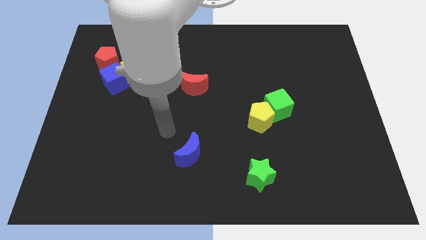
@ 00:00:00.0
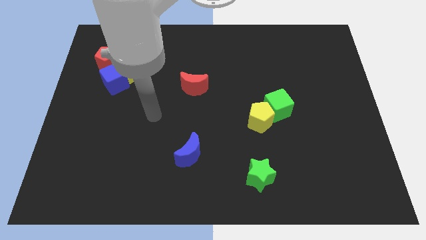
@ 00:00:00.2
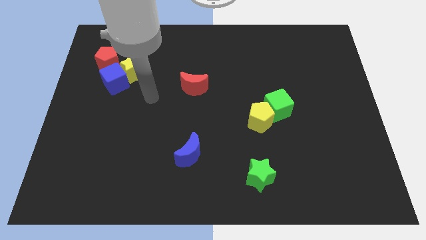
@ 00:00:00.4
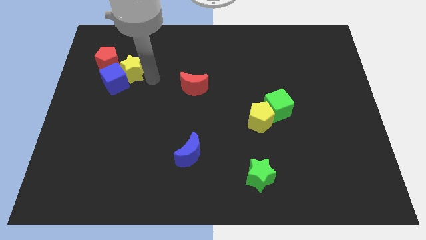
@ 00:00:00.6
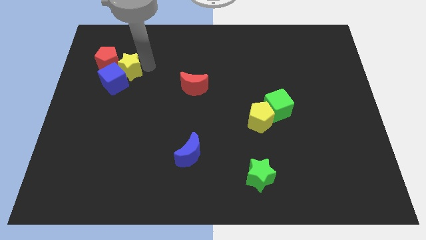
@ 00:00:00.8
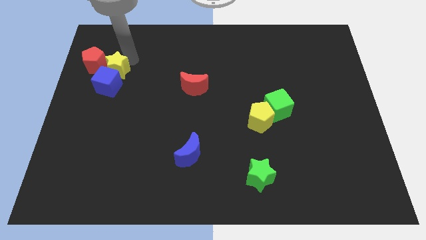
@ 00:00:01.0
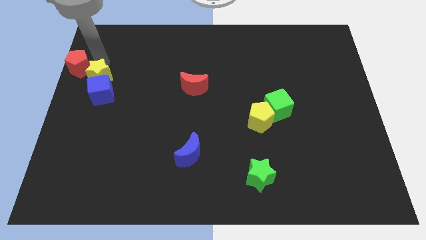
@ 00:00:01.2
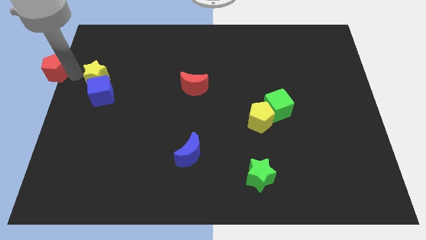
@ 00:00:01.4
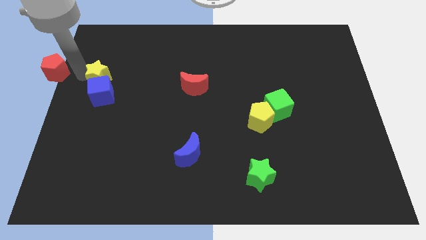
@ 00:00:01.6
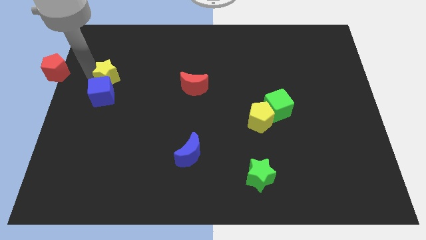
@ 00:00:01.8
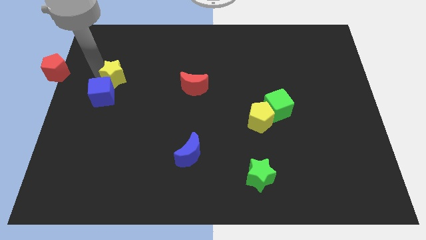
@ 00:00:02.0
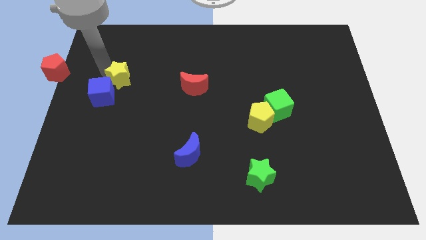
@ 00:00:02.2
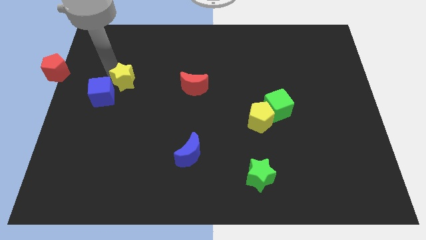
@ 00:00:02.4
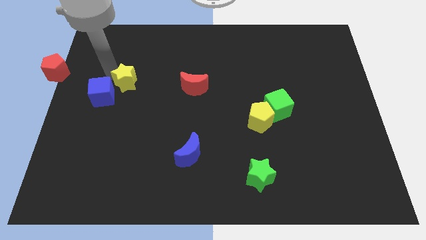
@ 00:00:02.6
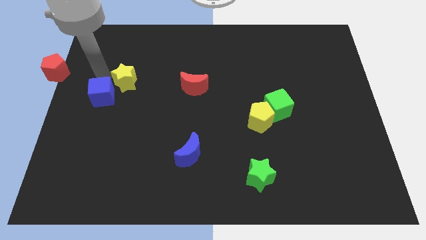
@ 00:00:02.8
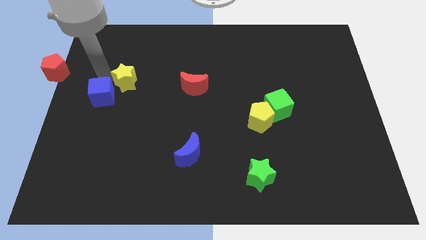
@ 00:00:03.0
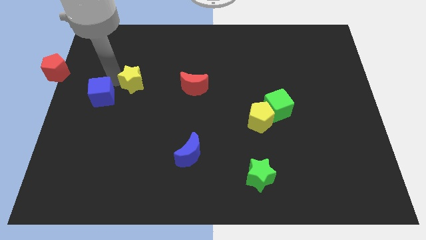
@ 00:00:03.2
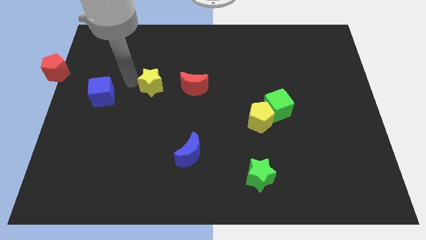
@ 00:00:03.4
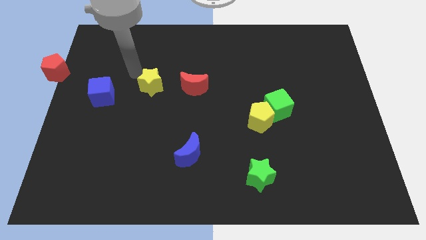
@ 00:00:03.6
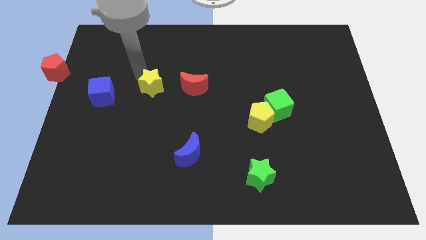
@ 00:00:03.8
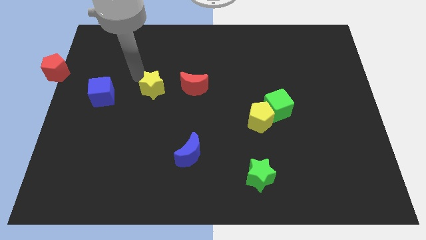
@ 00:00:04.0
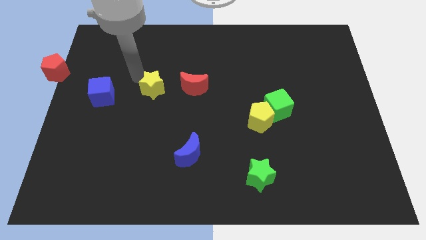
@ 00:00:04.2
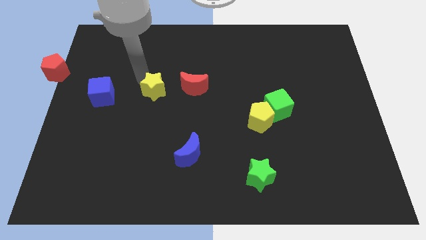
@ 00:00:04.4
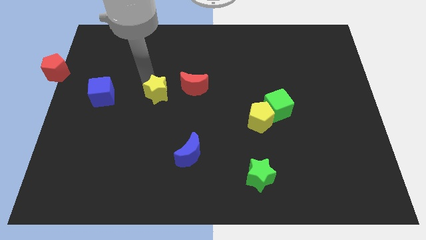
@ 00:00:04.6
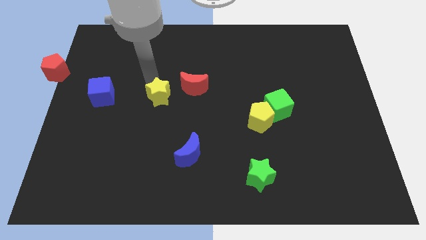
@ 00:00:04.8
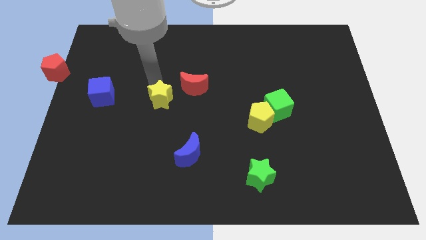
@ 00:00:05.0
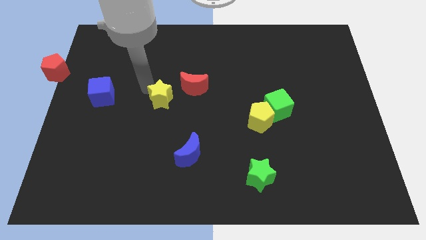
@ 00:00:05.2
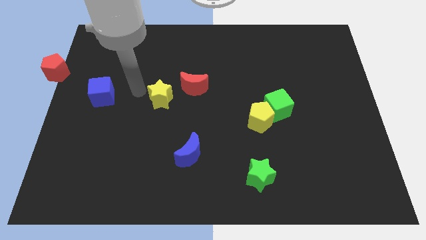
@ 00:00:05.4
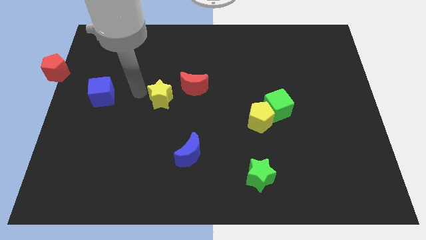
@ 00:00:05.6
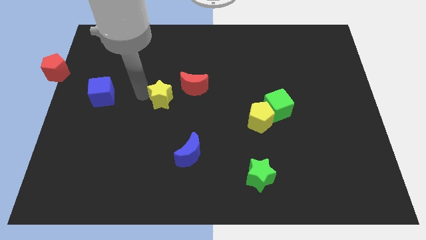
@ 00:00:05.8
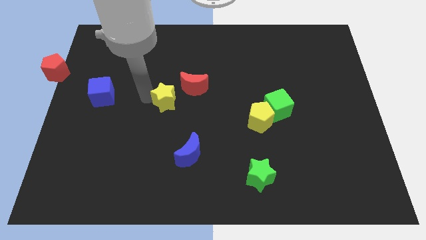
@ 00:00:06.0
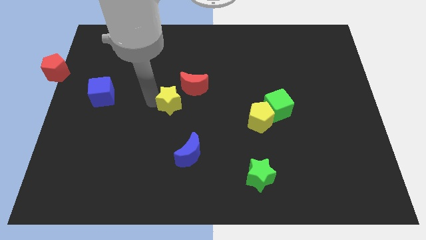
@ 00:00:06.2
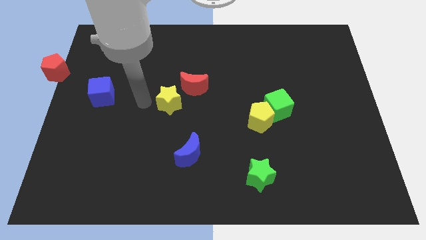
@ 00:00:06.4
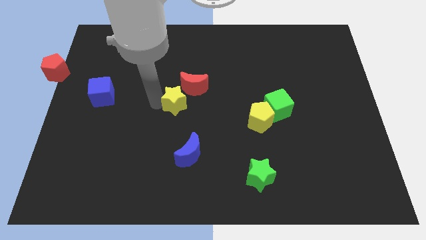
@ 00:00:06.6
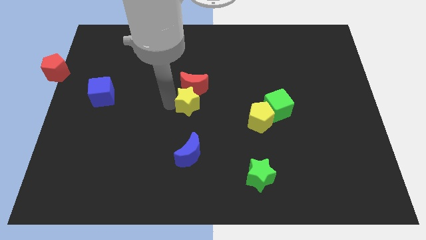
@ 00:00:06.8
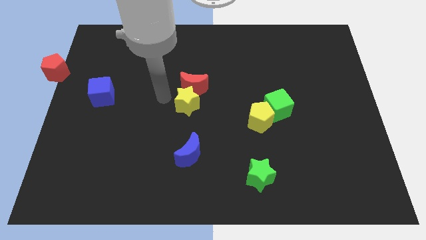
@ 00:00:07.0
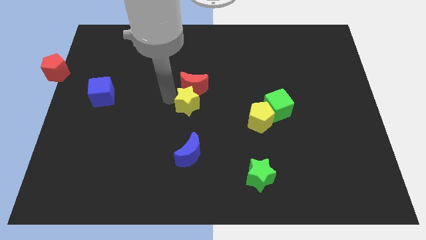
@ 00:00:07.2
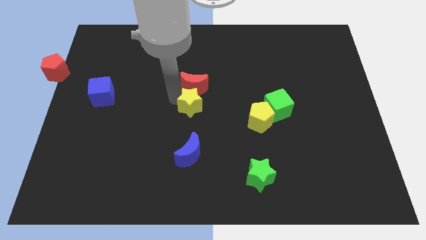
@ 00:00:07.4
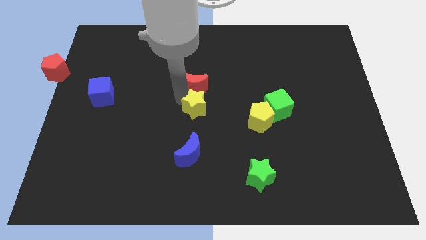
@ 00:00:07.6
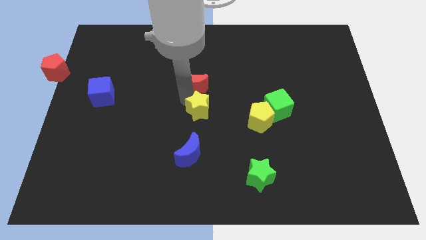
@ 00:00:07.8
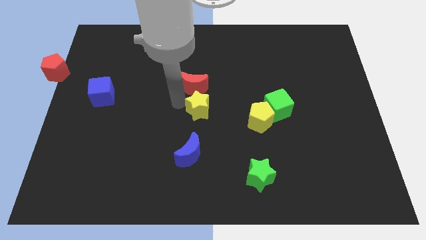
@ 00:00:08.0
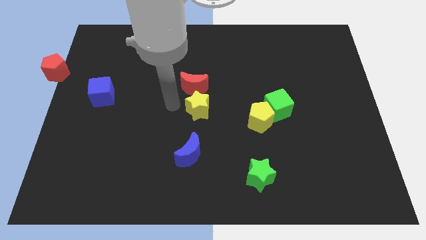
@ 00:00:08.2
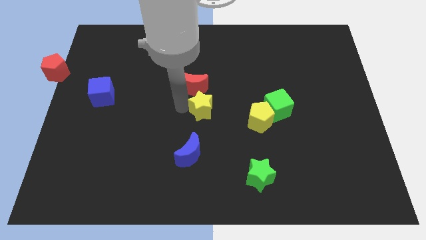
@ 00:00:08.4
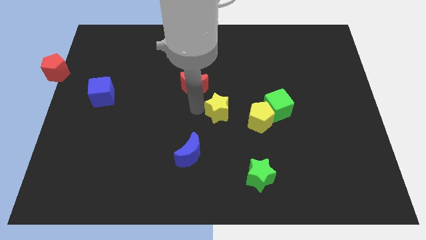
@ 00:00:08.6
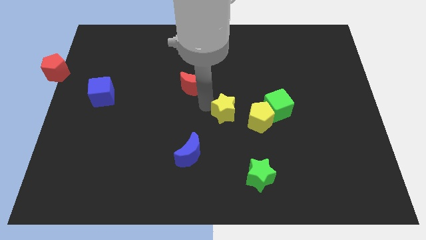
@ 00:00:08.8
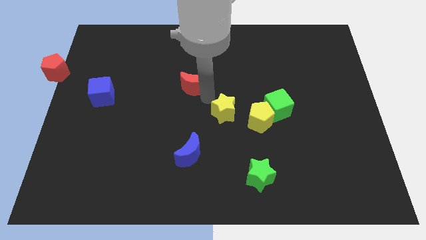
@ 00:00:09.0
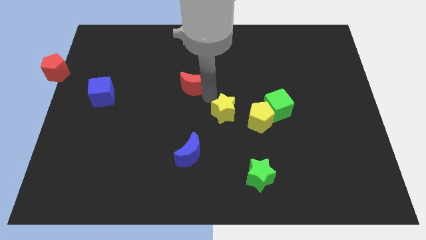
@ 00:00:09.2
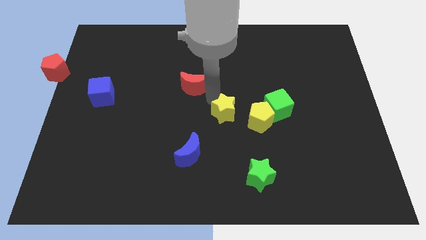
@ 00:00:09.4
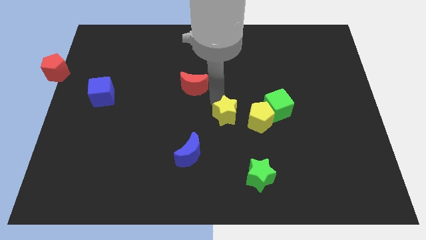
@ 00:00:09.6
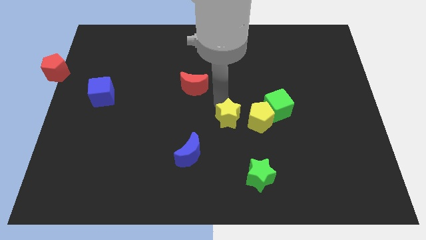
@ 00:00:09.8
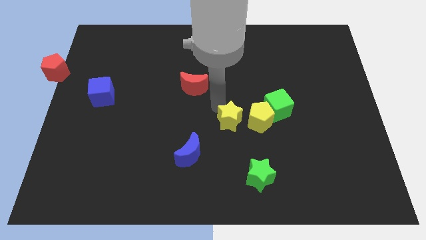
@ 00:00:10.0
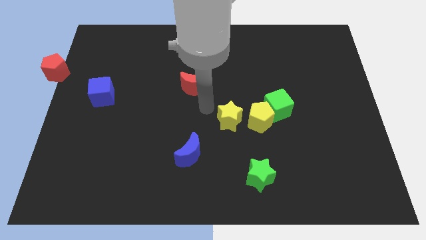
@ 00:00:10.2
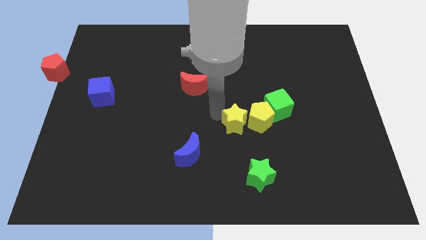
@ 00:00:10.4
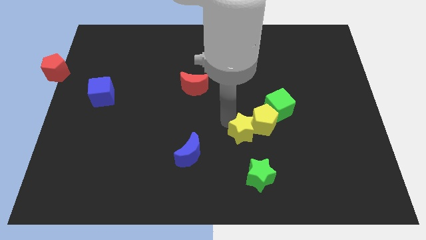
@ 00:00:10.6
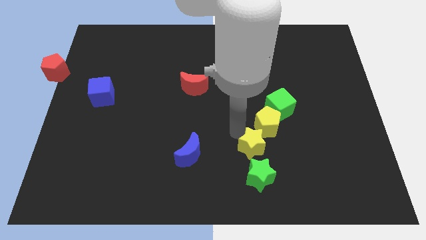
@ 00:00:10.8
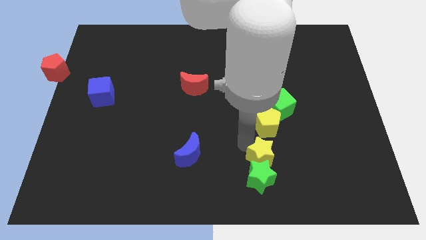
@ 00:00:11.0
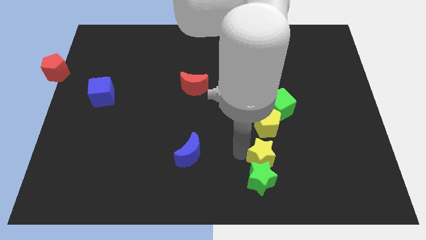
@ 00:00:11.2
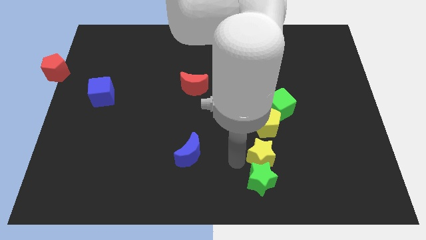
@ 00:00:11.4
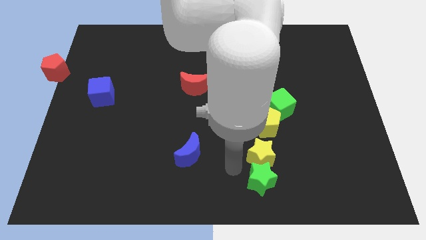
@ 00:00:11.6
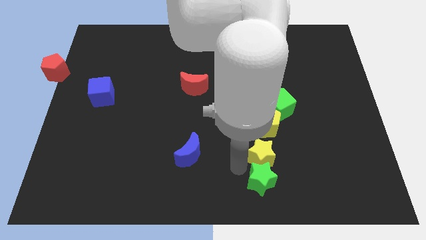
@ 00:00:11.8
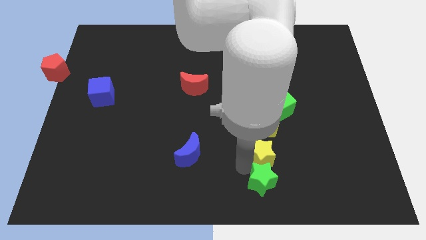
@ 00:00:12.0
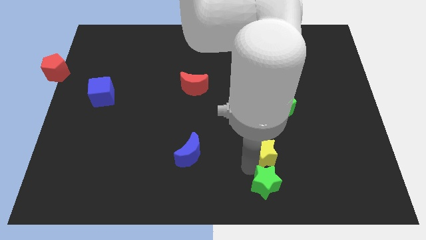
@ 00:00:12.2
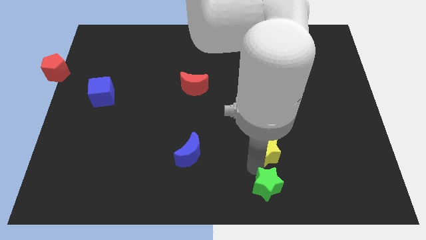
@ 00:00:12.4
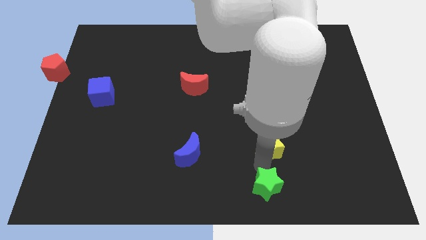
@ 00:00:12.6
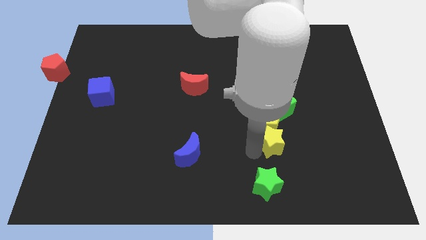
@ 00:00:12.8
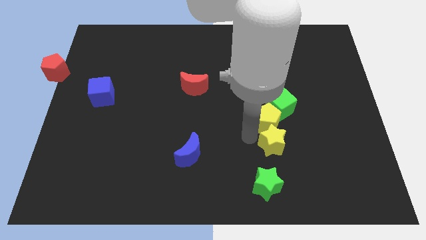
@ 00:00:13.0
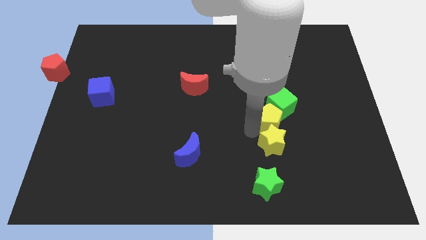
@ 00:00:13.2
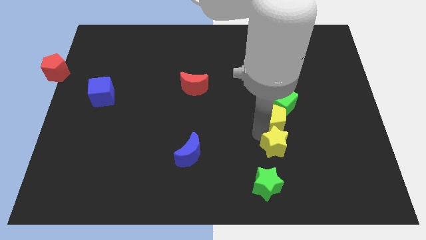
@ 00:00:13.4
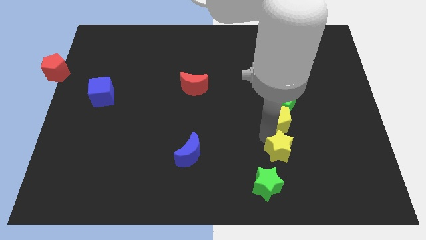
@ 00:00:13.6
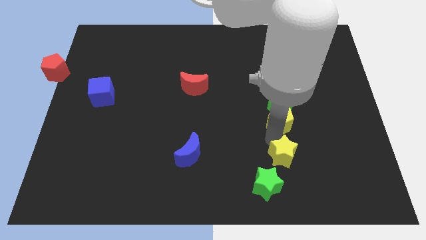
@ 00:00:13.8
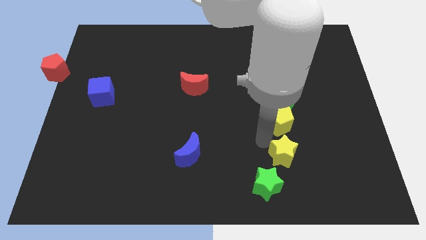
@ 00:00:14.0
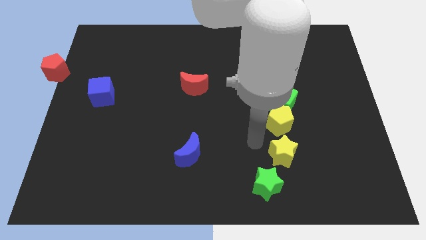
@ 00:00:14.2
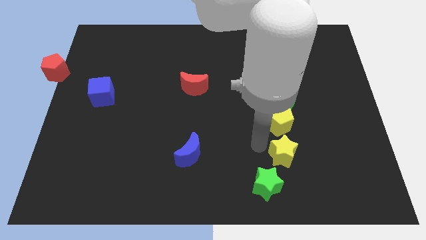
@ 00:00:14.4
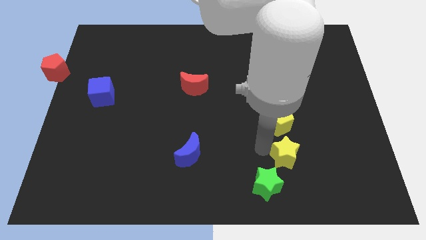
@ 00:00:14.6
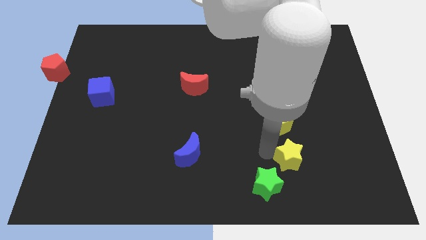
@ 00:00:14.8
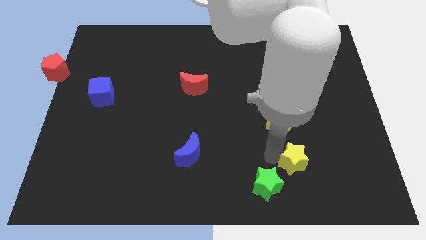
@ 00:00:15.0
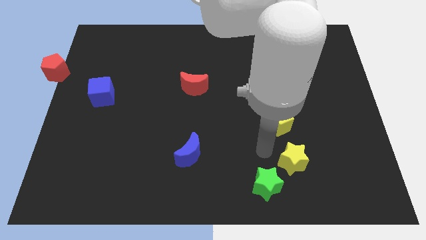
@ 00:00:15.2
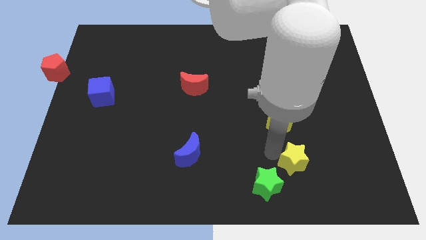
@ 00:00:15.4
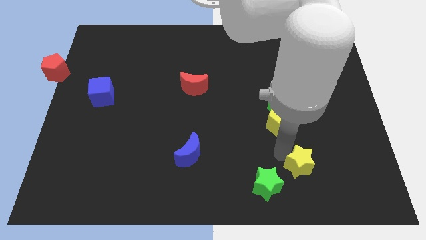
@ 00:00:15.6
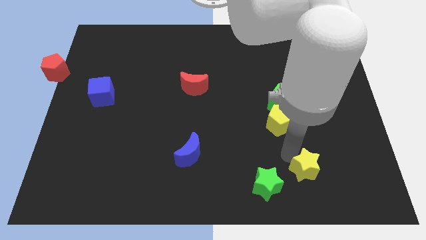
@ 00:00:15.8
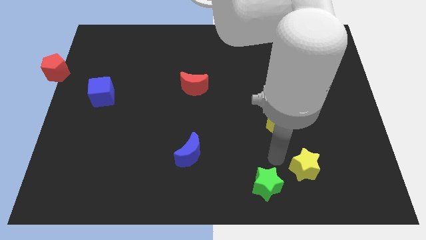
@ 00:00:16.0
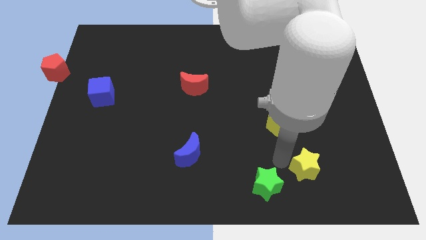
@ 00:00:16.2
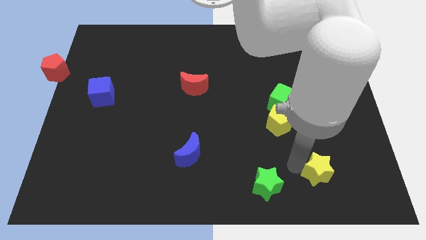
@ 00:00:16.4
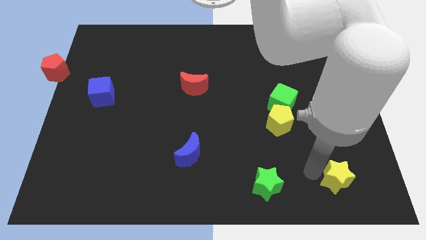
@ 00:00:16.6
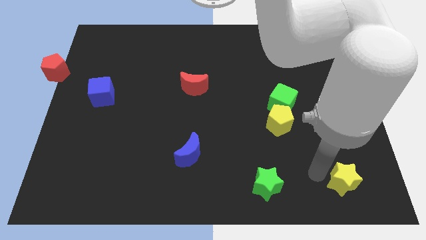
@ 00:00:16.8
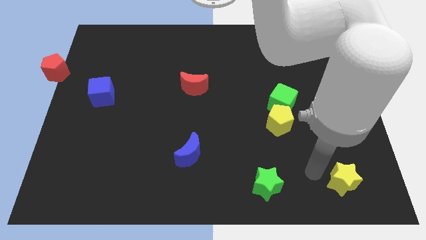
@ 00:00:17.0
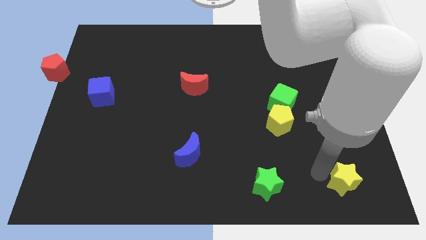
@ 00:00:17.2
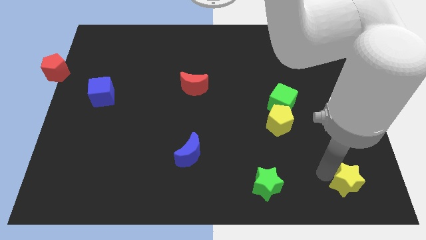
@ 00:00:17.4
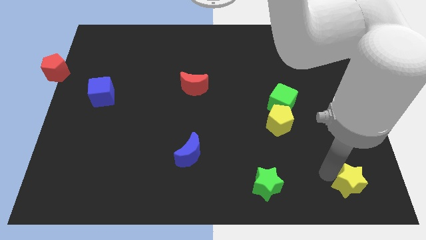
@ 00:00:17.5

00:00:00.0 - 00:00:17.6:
slide the yellow star to the bottom right
